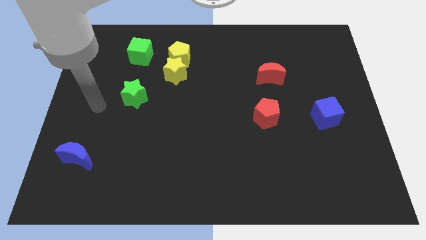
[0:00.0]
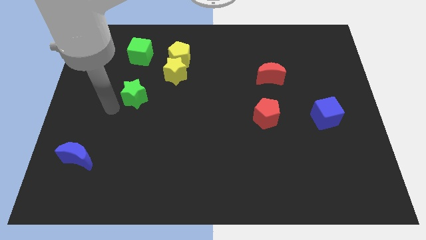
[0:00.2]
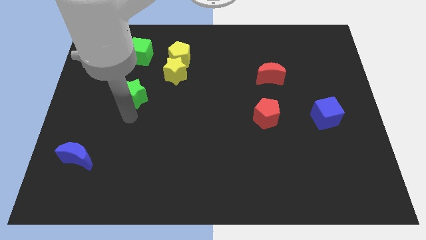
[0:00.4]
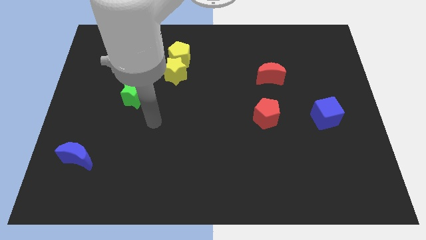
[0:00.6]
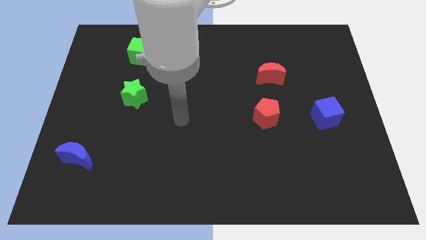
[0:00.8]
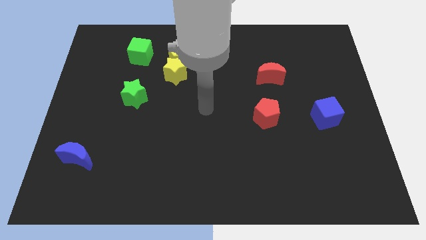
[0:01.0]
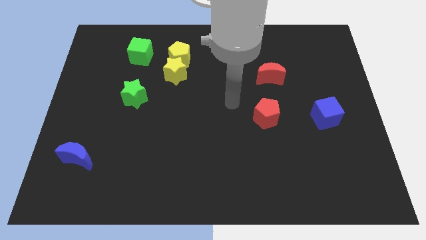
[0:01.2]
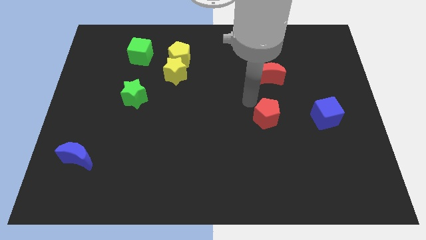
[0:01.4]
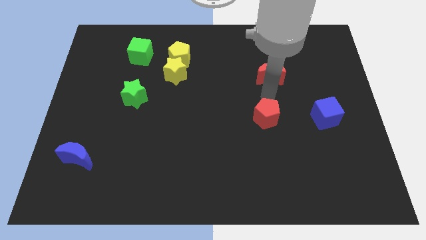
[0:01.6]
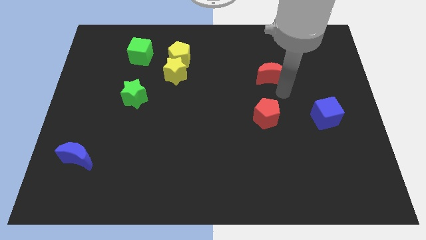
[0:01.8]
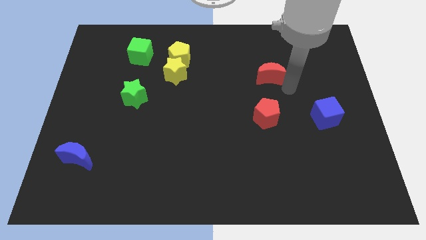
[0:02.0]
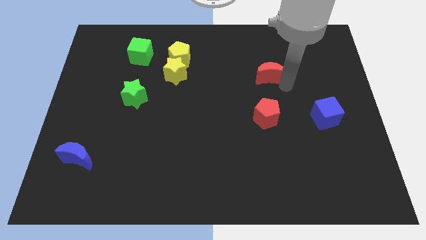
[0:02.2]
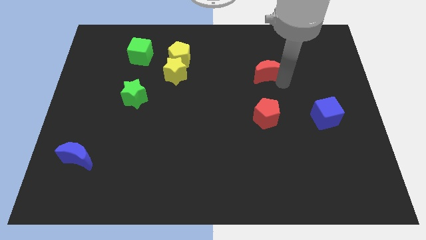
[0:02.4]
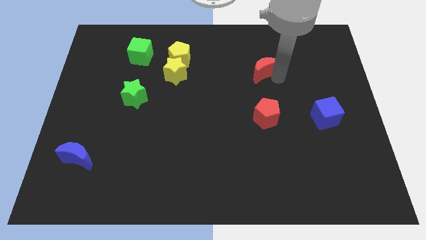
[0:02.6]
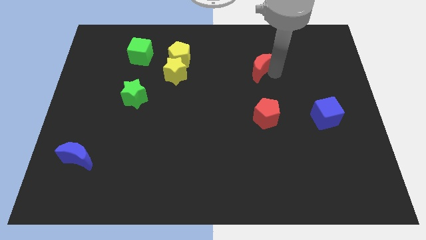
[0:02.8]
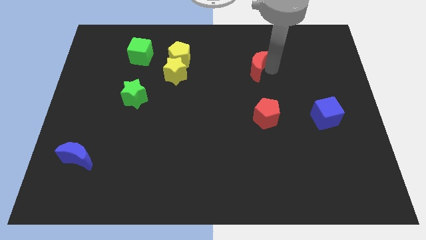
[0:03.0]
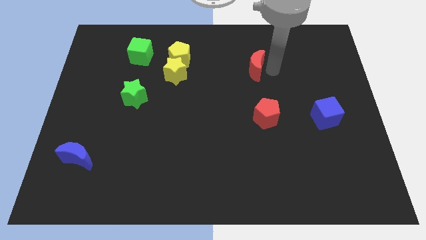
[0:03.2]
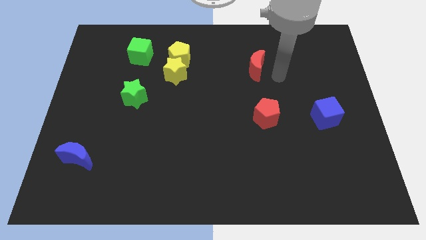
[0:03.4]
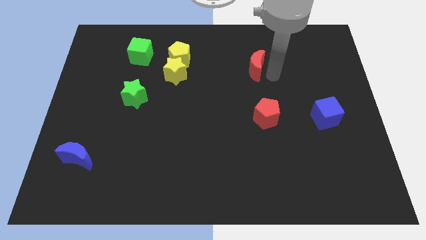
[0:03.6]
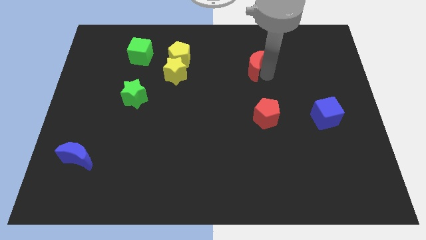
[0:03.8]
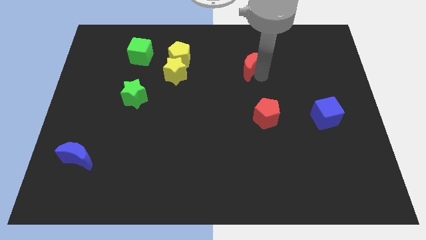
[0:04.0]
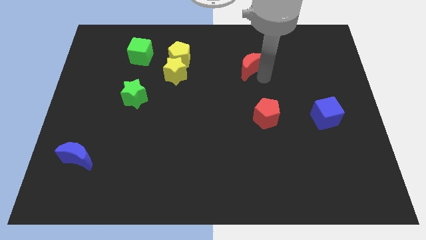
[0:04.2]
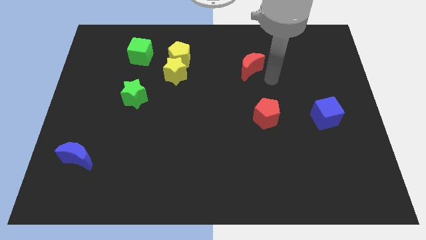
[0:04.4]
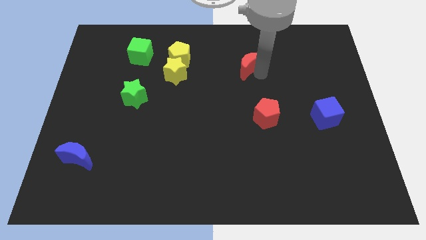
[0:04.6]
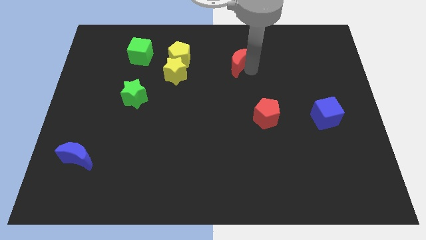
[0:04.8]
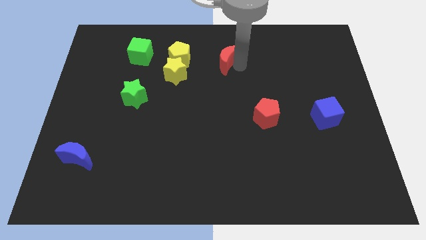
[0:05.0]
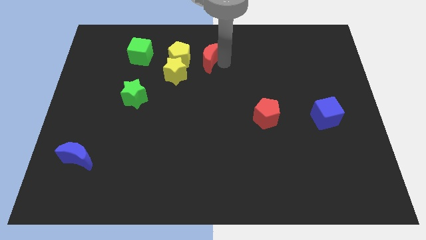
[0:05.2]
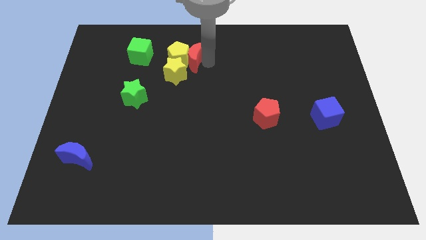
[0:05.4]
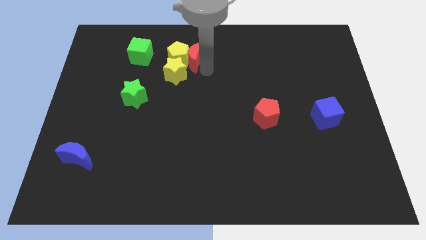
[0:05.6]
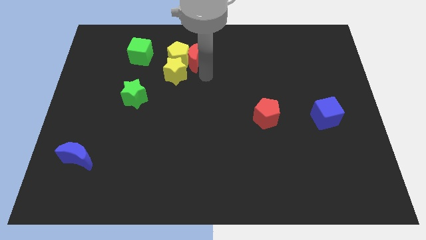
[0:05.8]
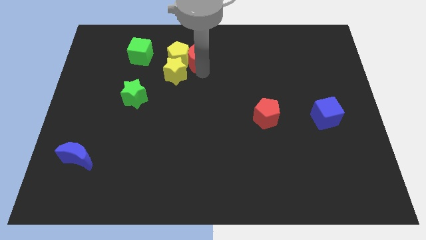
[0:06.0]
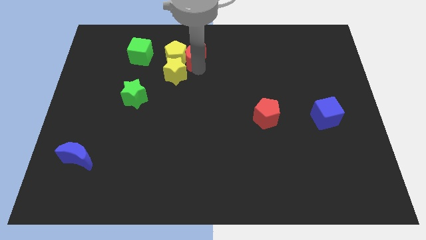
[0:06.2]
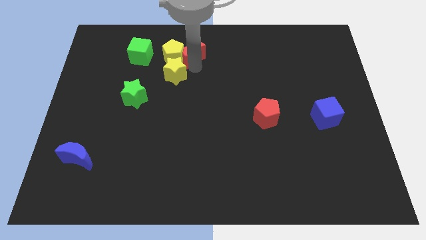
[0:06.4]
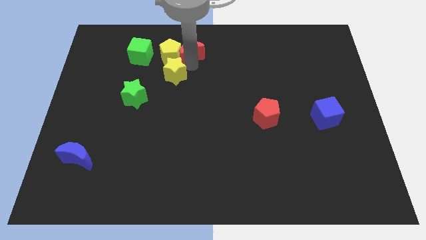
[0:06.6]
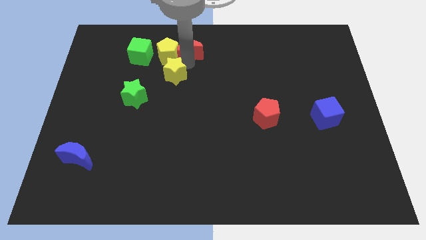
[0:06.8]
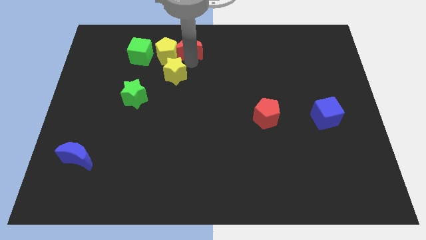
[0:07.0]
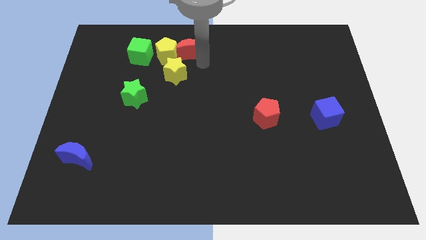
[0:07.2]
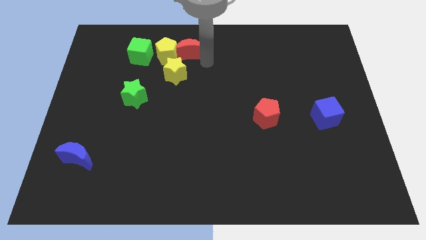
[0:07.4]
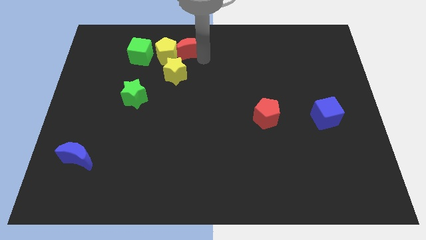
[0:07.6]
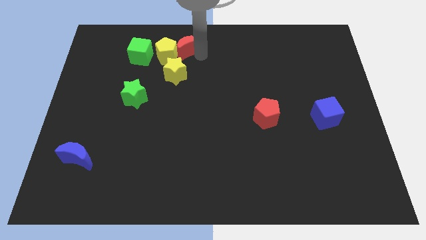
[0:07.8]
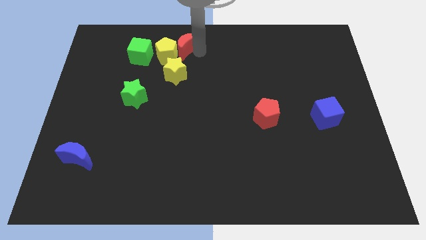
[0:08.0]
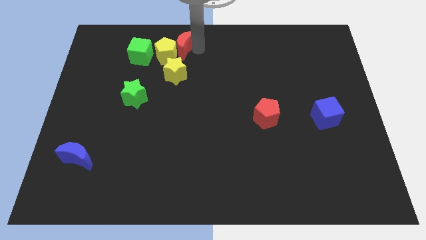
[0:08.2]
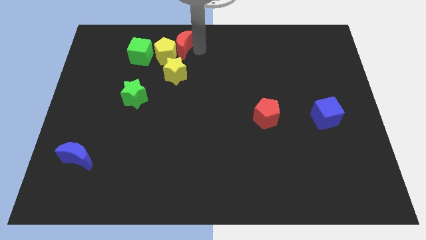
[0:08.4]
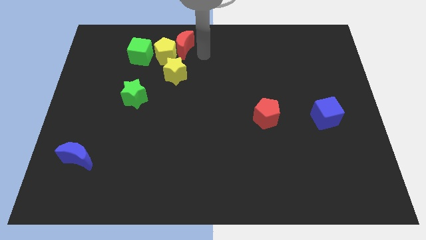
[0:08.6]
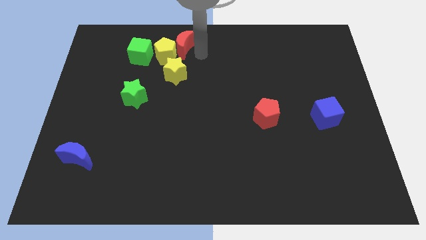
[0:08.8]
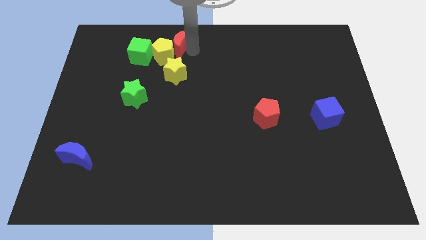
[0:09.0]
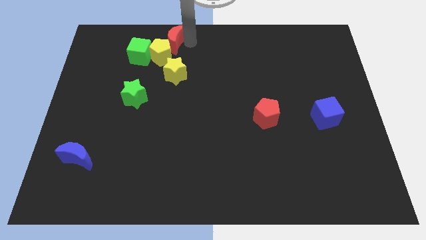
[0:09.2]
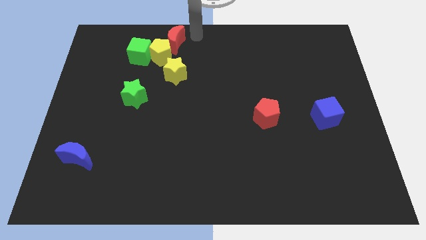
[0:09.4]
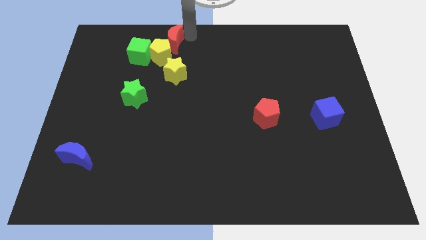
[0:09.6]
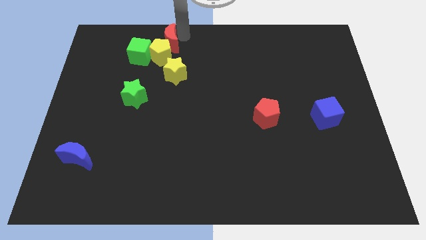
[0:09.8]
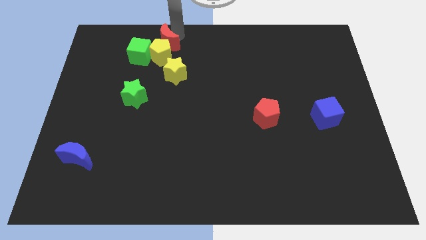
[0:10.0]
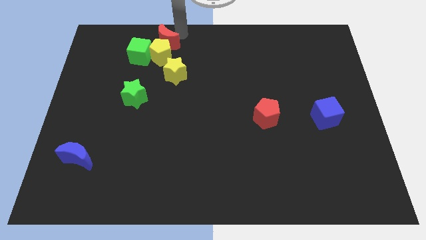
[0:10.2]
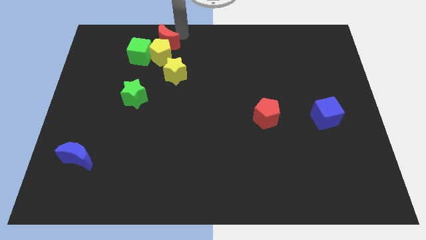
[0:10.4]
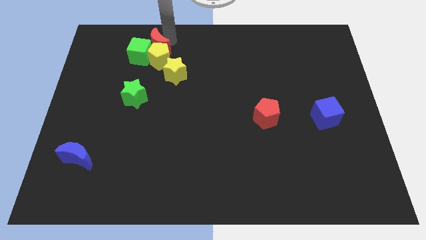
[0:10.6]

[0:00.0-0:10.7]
move the red moon towards the green cube

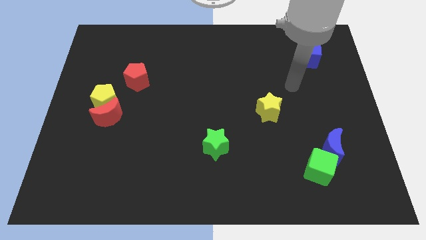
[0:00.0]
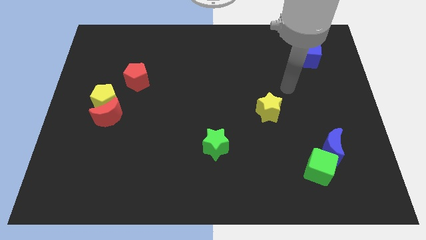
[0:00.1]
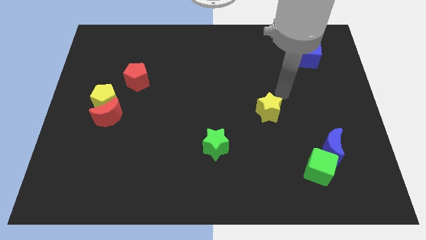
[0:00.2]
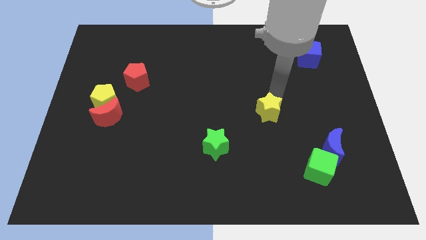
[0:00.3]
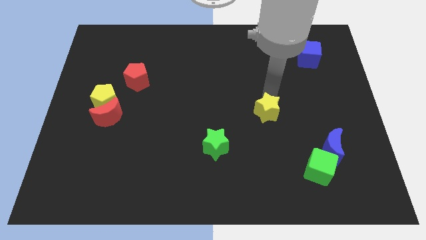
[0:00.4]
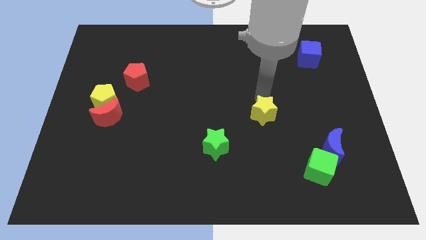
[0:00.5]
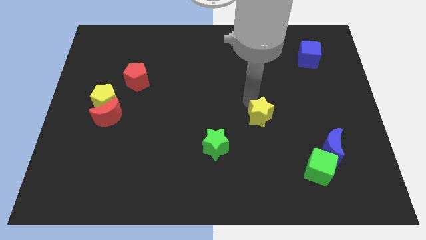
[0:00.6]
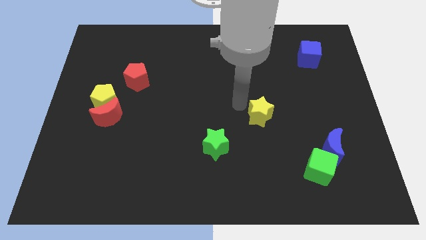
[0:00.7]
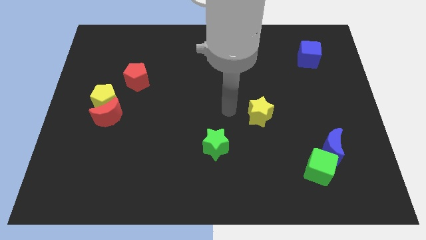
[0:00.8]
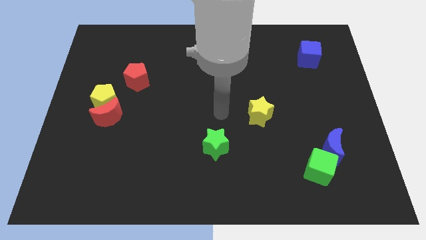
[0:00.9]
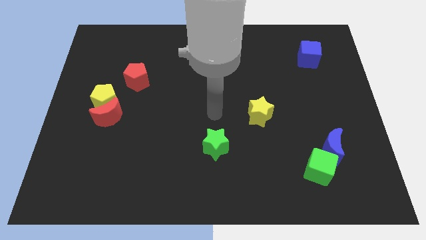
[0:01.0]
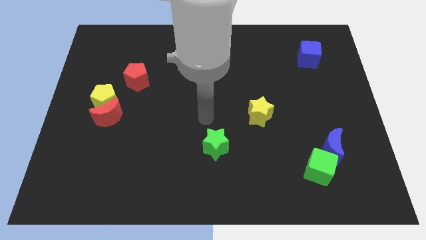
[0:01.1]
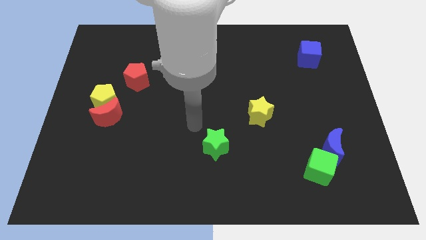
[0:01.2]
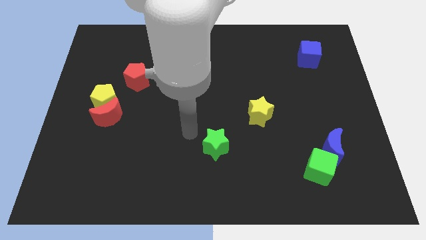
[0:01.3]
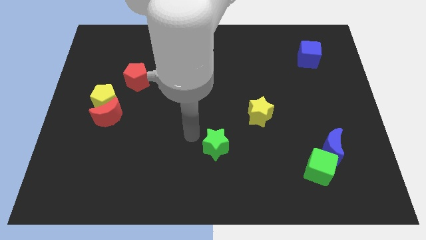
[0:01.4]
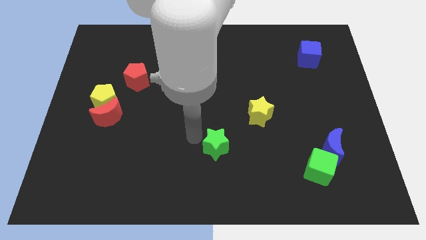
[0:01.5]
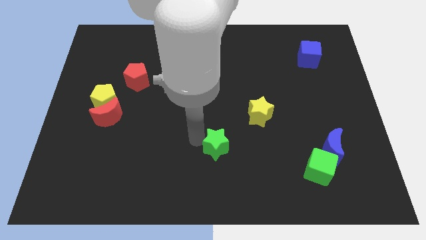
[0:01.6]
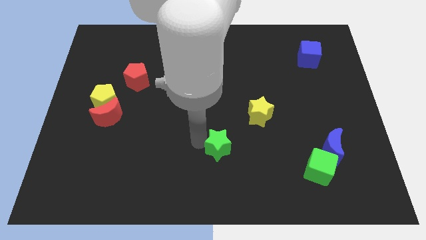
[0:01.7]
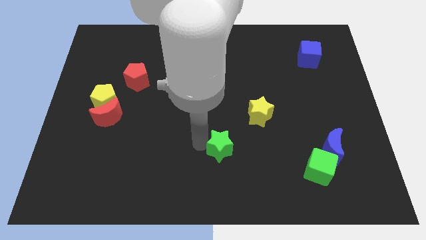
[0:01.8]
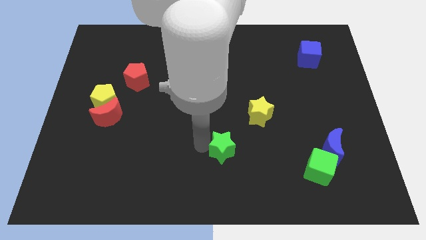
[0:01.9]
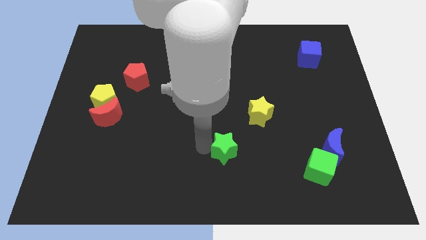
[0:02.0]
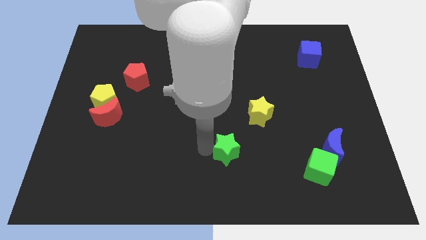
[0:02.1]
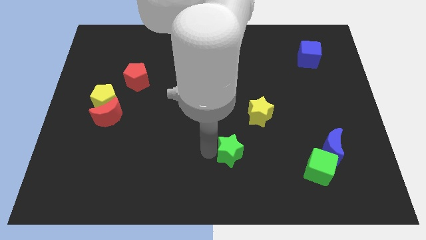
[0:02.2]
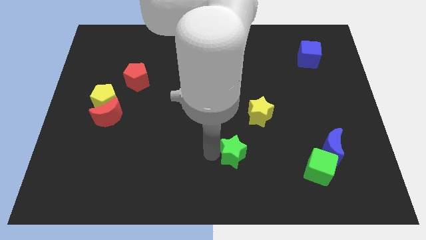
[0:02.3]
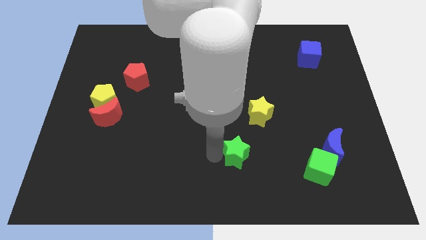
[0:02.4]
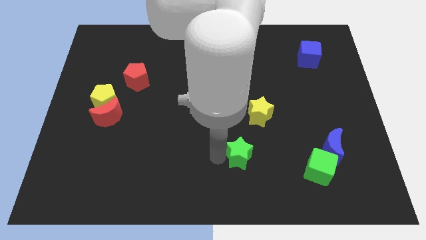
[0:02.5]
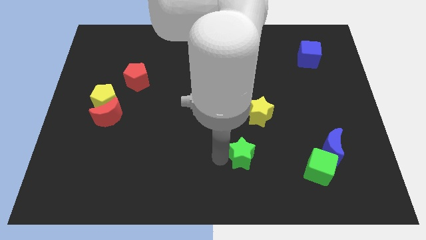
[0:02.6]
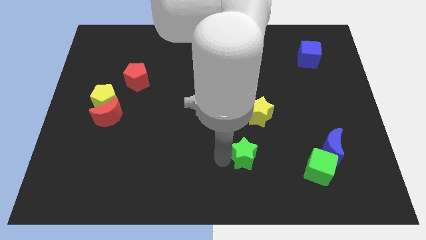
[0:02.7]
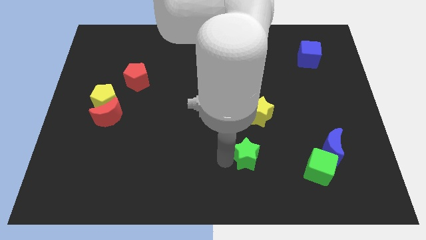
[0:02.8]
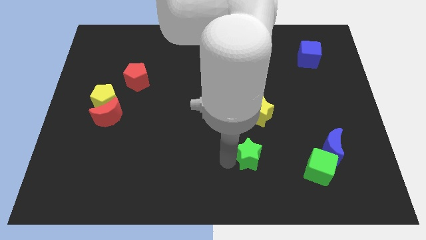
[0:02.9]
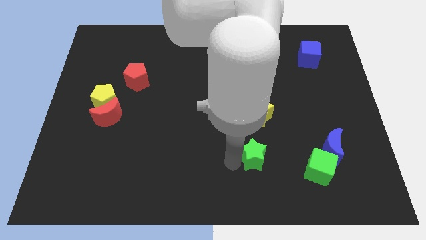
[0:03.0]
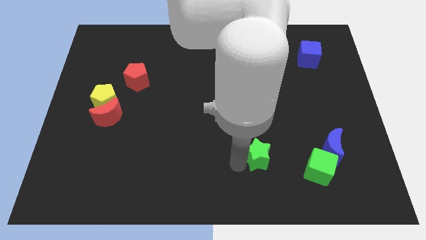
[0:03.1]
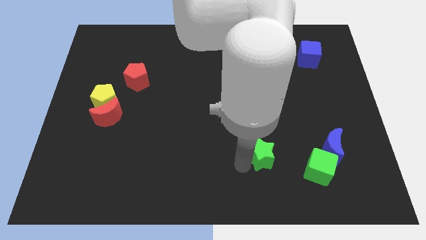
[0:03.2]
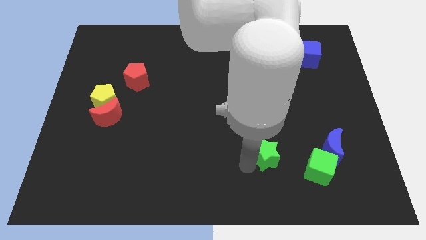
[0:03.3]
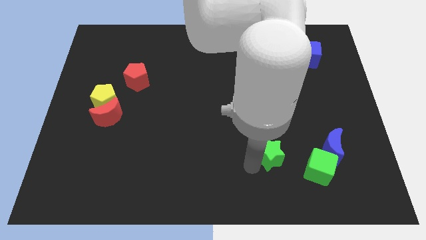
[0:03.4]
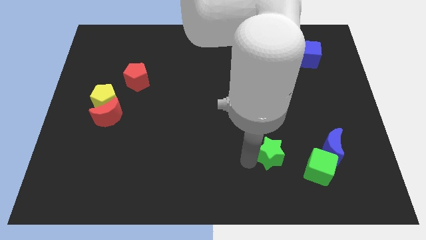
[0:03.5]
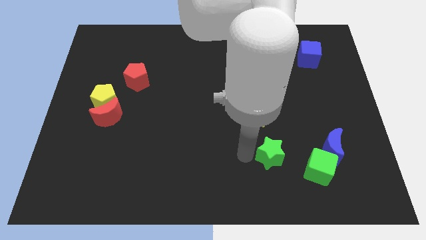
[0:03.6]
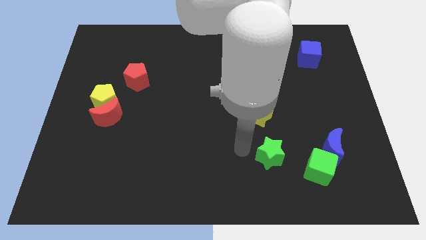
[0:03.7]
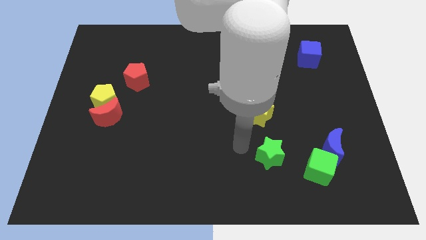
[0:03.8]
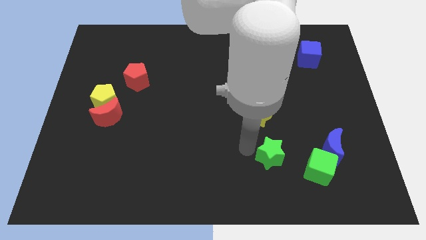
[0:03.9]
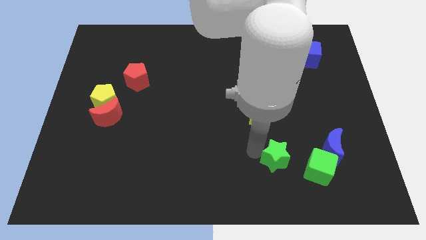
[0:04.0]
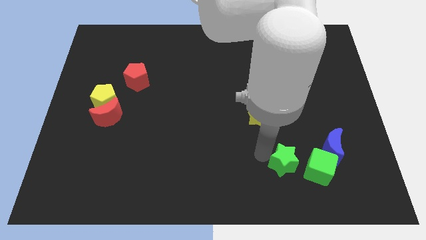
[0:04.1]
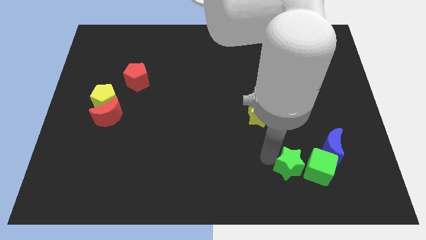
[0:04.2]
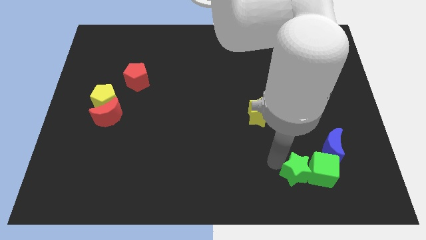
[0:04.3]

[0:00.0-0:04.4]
push the green star to the green cube
